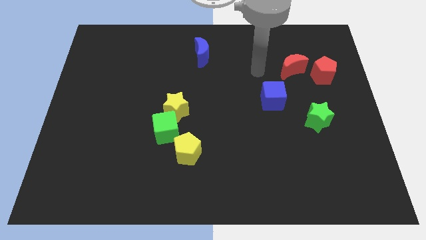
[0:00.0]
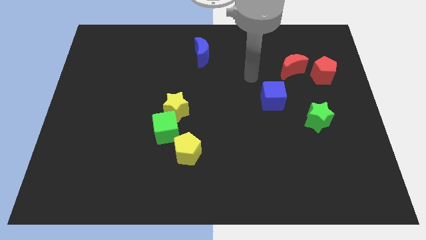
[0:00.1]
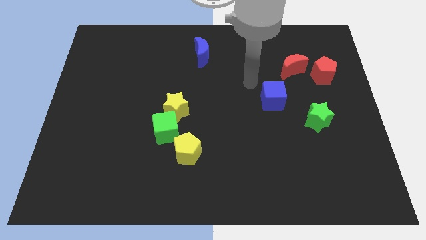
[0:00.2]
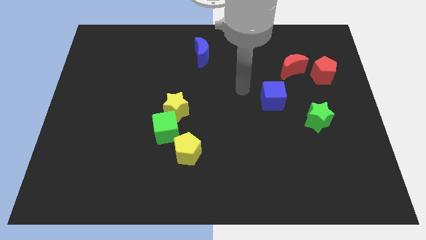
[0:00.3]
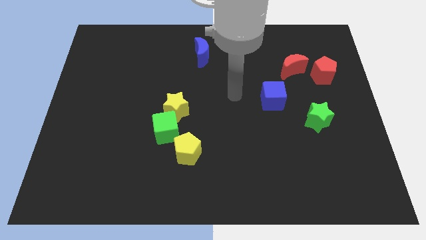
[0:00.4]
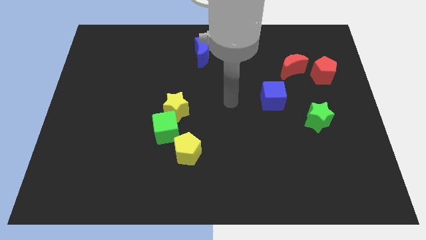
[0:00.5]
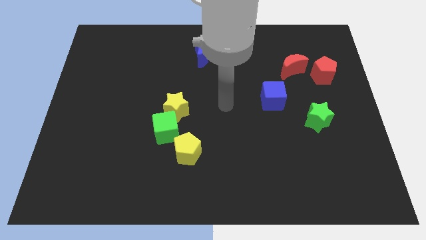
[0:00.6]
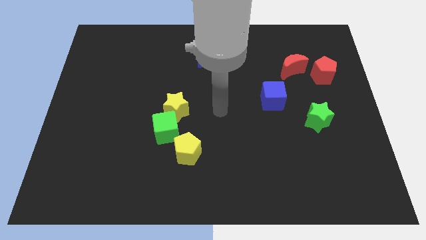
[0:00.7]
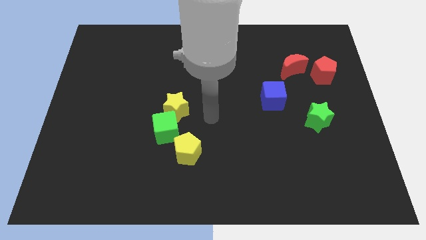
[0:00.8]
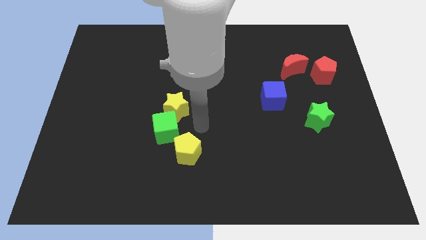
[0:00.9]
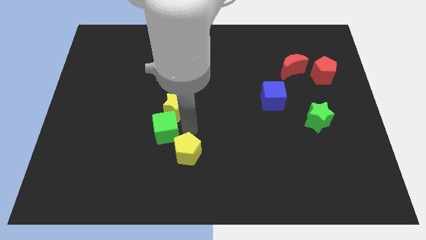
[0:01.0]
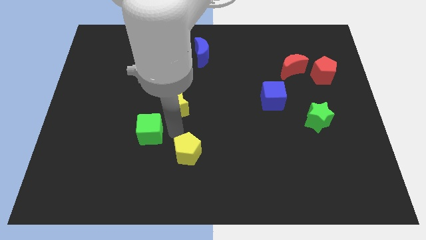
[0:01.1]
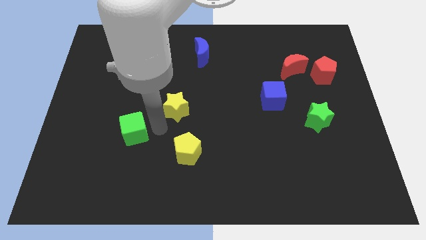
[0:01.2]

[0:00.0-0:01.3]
move the yellow star away from the green cube

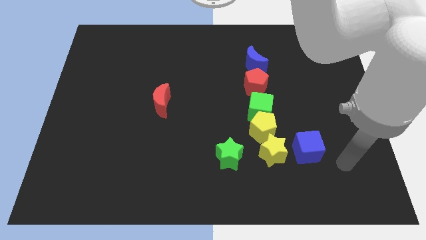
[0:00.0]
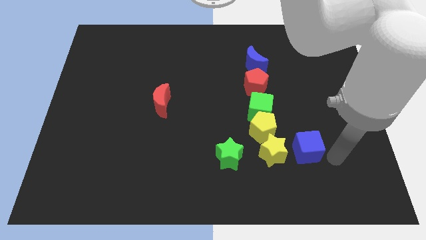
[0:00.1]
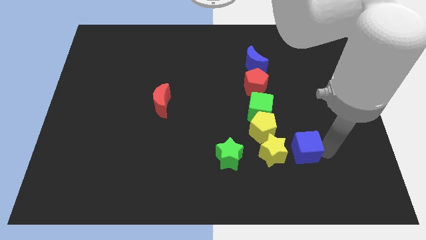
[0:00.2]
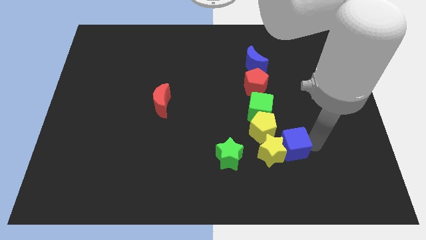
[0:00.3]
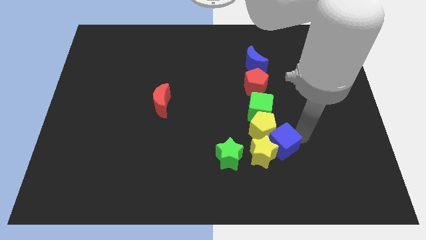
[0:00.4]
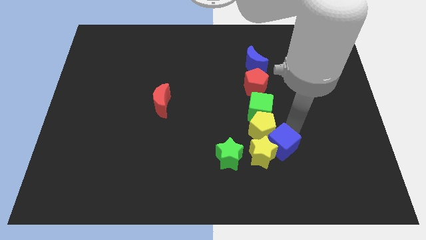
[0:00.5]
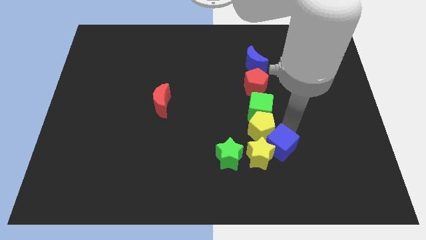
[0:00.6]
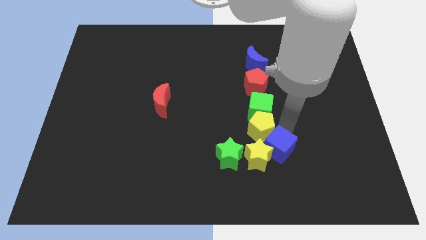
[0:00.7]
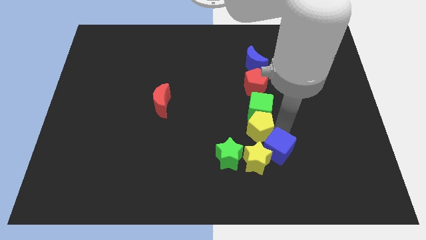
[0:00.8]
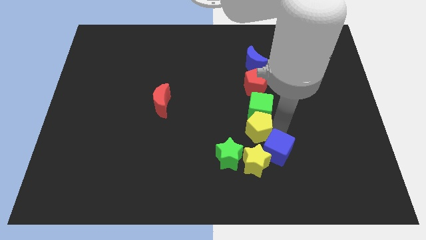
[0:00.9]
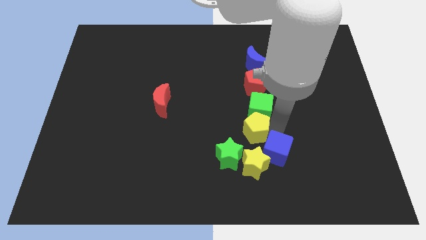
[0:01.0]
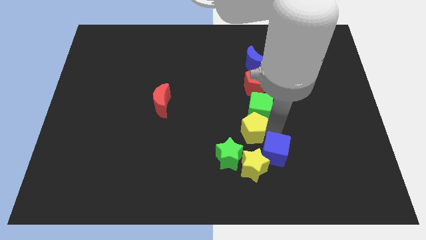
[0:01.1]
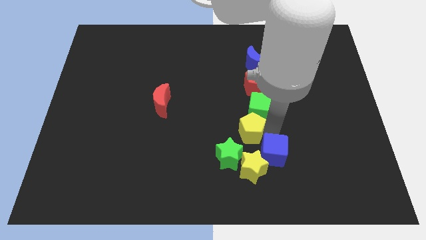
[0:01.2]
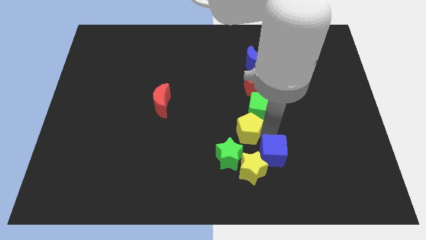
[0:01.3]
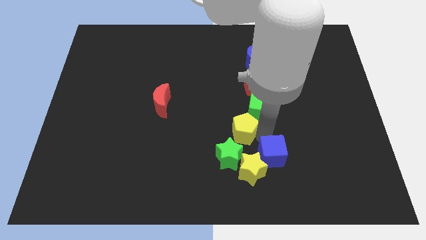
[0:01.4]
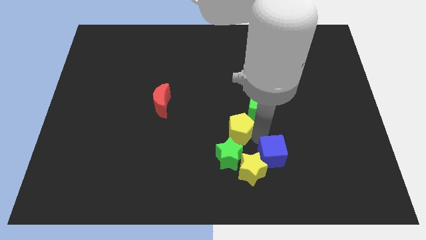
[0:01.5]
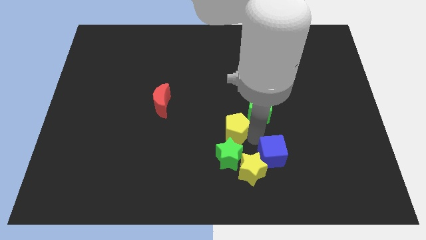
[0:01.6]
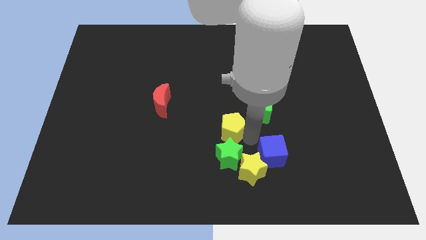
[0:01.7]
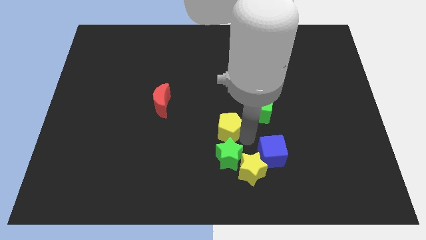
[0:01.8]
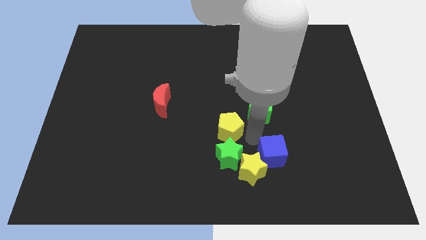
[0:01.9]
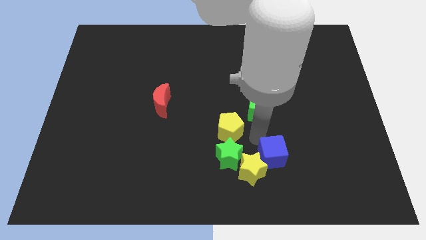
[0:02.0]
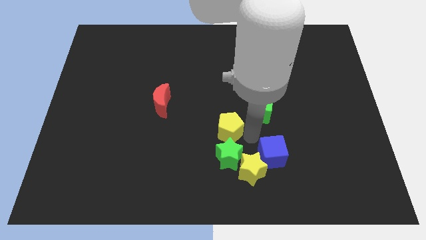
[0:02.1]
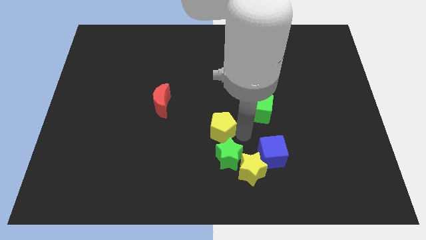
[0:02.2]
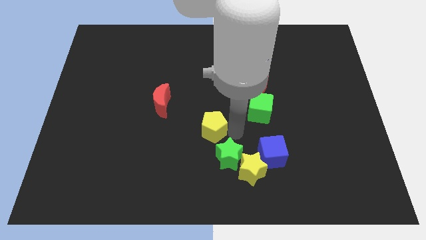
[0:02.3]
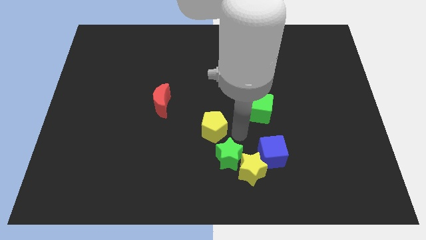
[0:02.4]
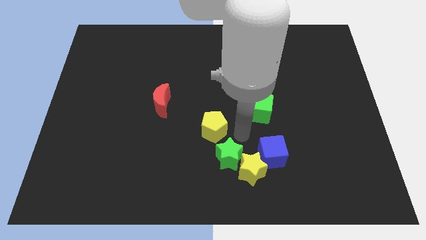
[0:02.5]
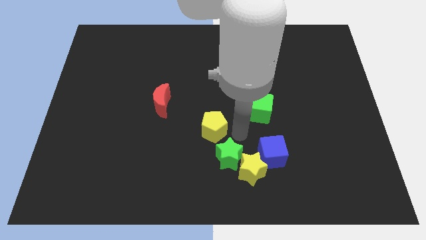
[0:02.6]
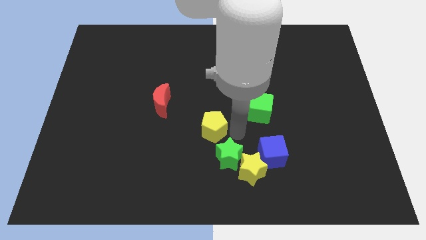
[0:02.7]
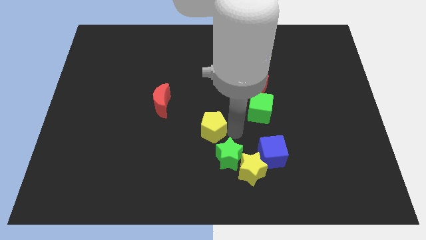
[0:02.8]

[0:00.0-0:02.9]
move the yellow pentagon away from the green cube and yellow star

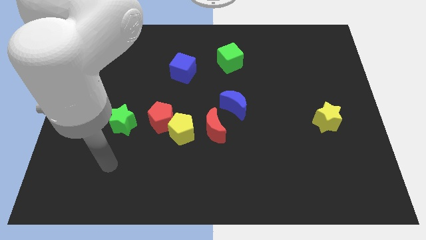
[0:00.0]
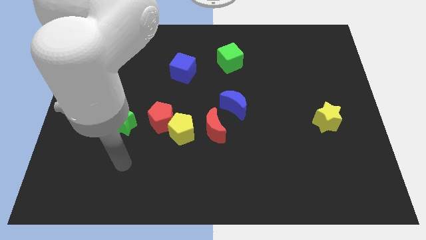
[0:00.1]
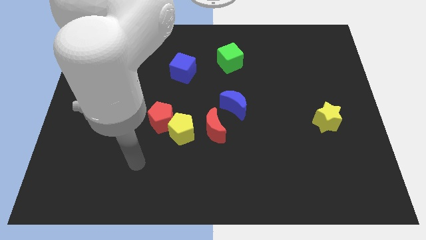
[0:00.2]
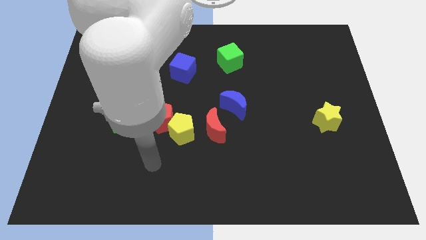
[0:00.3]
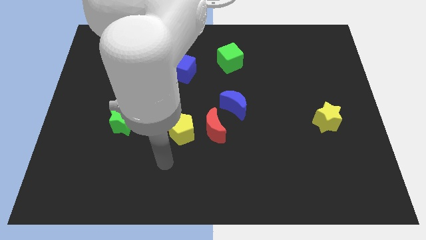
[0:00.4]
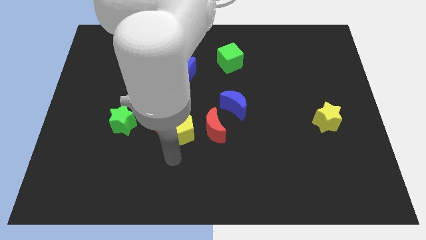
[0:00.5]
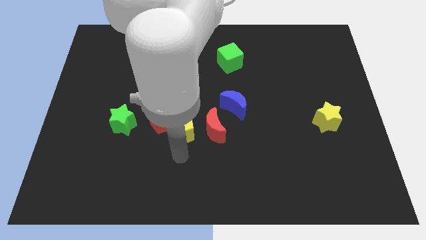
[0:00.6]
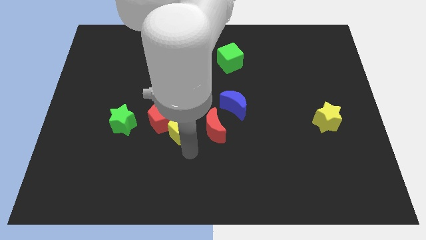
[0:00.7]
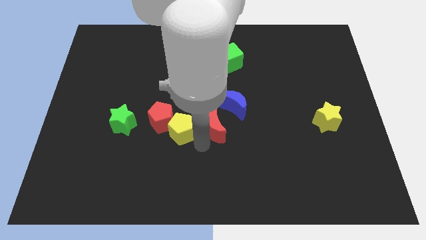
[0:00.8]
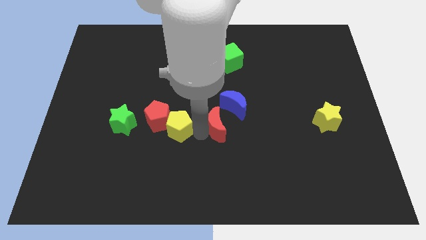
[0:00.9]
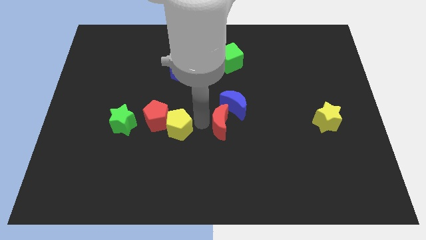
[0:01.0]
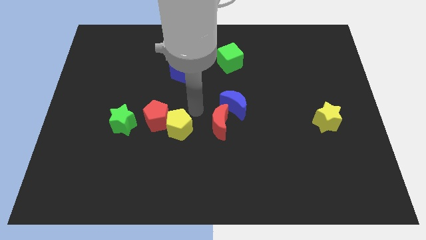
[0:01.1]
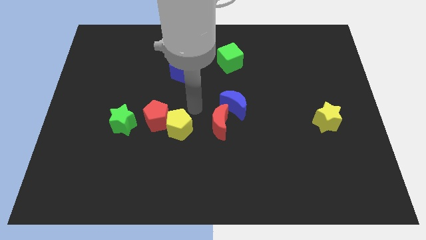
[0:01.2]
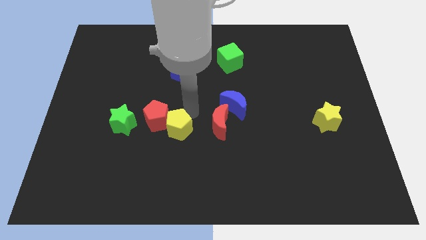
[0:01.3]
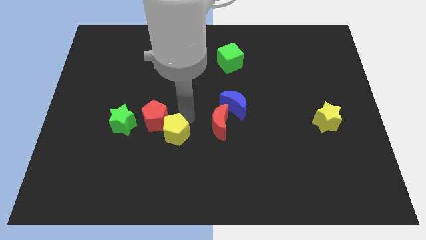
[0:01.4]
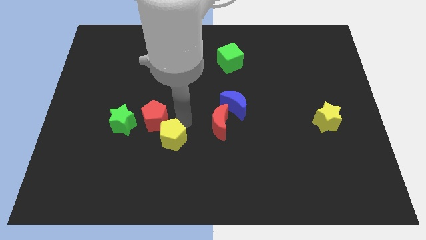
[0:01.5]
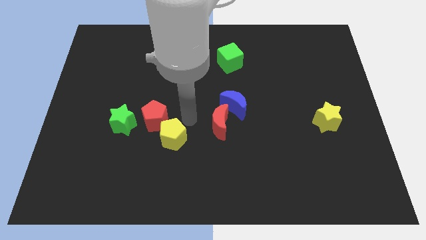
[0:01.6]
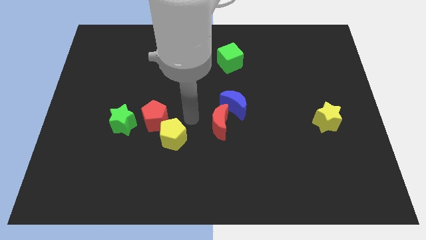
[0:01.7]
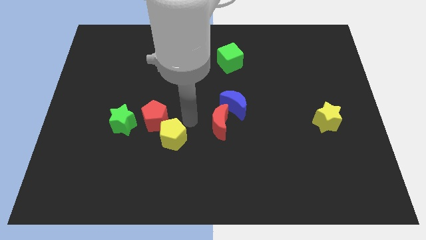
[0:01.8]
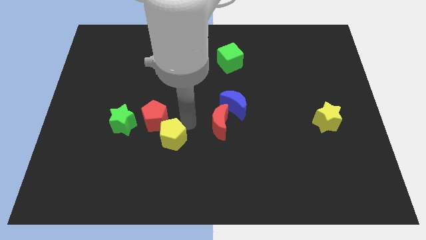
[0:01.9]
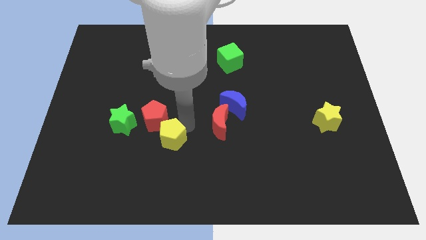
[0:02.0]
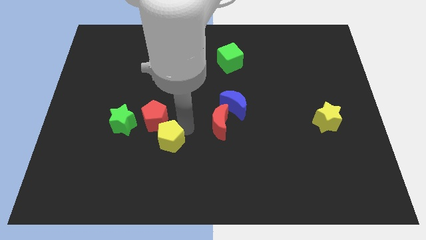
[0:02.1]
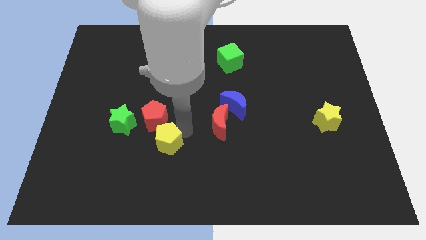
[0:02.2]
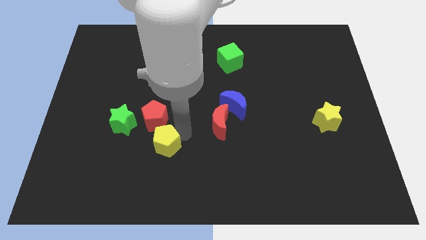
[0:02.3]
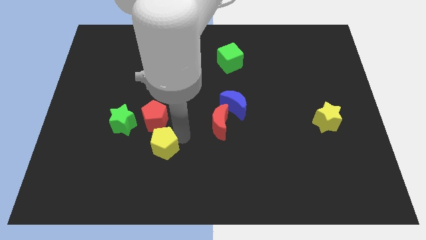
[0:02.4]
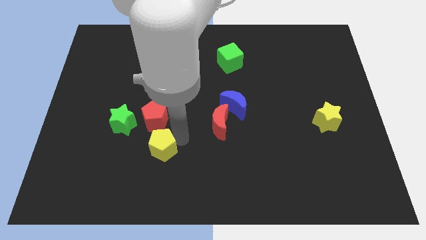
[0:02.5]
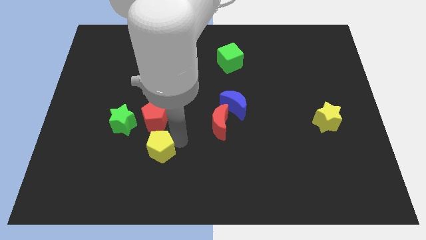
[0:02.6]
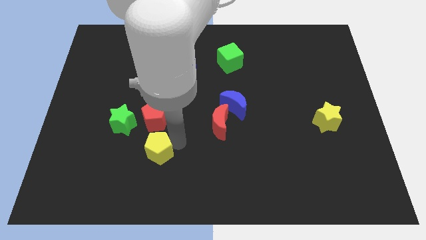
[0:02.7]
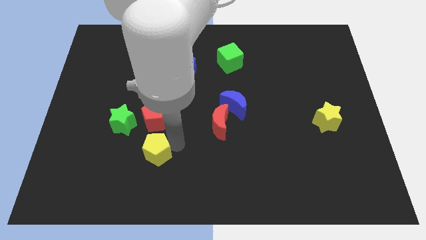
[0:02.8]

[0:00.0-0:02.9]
pull the yellow pentagon apart from the red pentagon and red moon

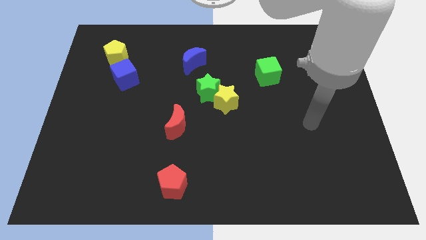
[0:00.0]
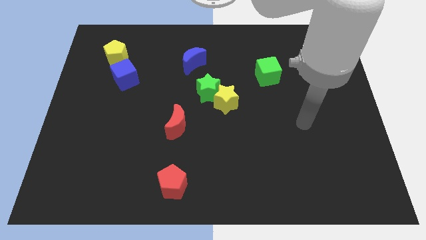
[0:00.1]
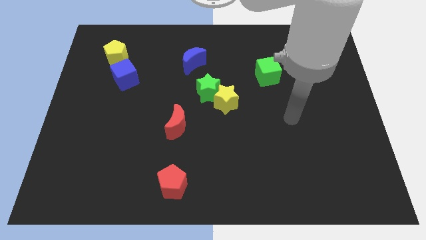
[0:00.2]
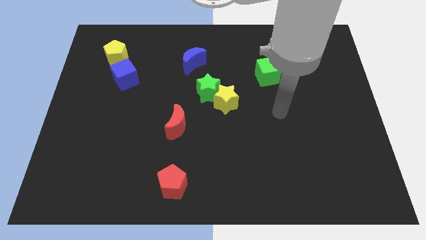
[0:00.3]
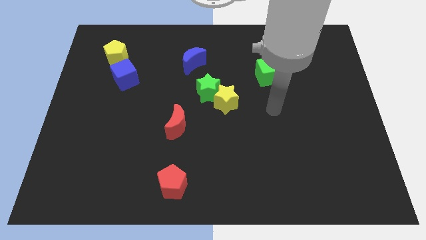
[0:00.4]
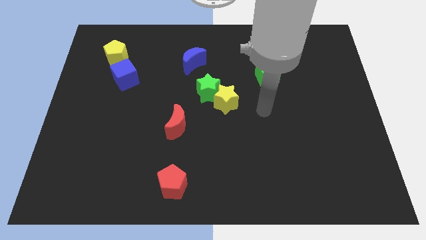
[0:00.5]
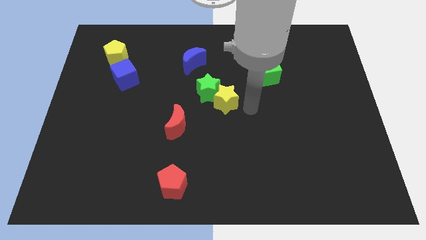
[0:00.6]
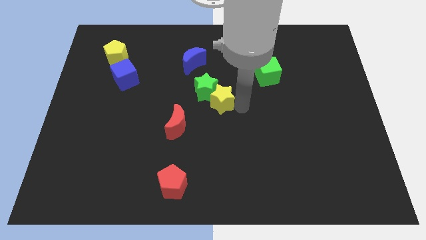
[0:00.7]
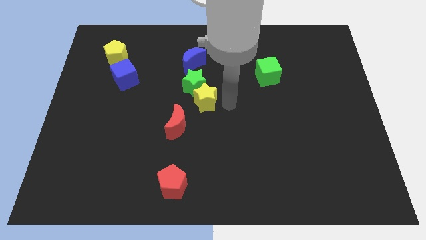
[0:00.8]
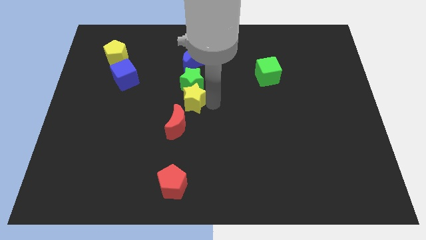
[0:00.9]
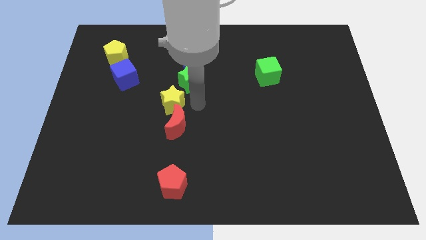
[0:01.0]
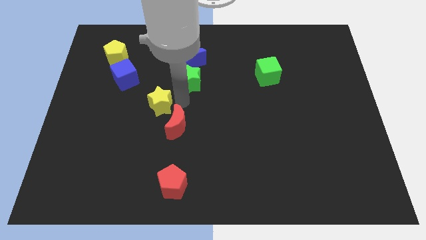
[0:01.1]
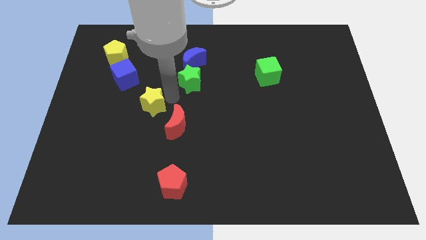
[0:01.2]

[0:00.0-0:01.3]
separate the green star from the yellow star

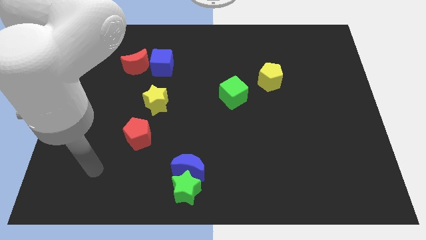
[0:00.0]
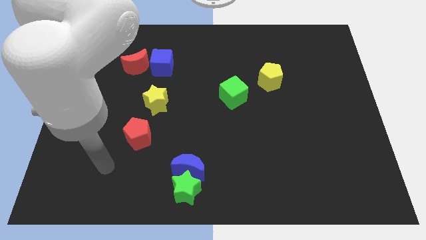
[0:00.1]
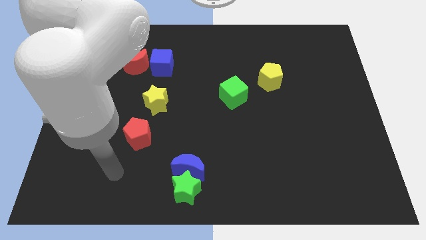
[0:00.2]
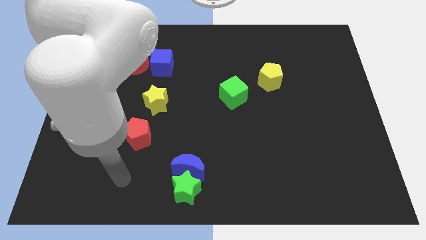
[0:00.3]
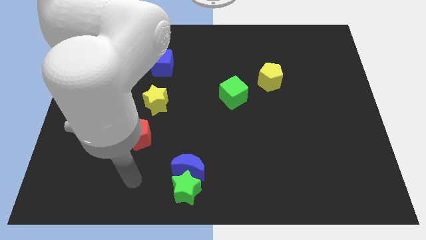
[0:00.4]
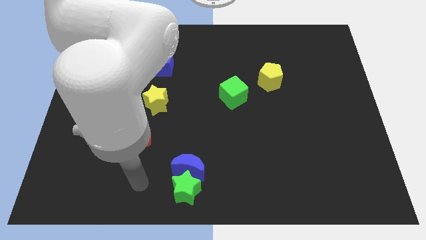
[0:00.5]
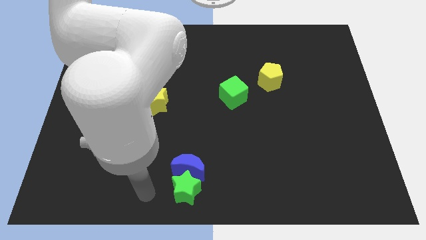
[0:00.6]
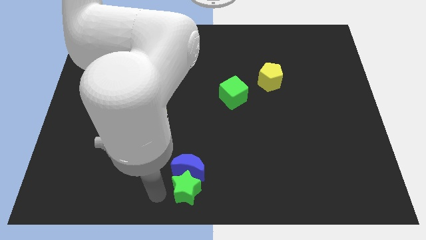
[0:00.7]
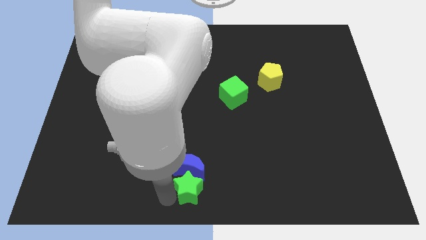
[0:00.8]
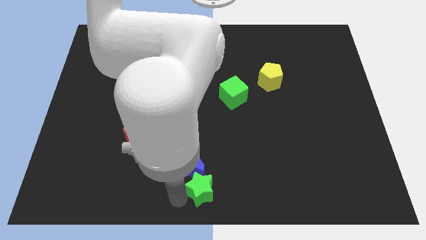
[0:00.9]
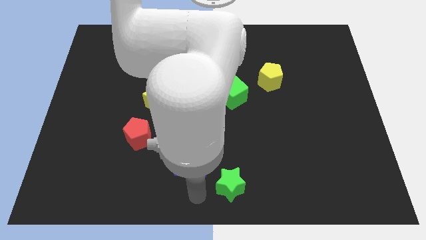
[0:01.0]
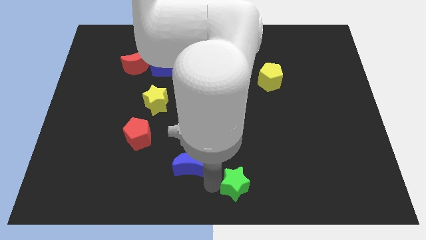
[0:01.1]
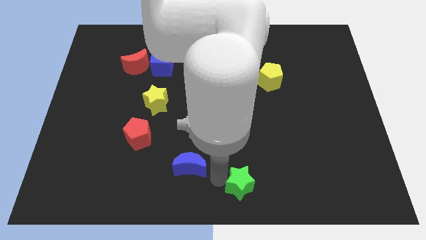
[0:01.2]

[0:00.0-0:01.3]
move the blue moon away from the green star
